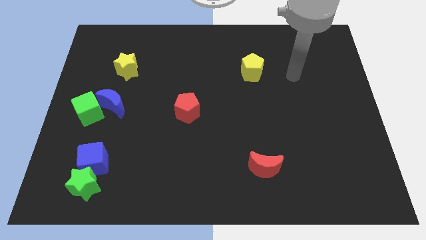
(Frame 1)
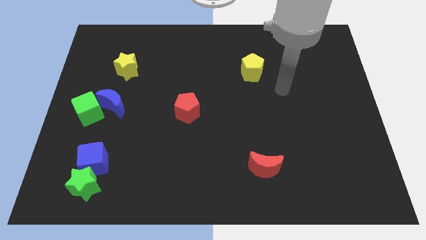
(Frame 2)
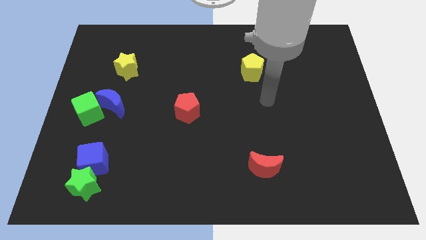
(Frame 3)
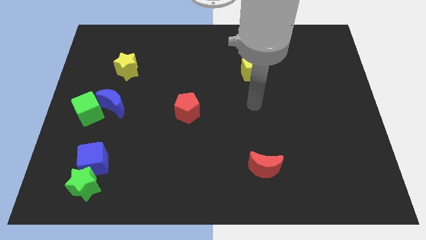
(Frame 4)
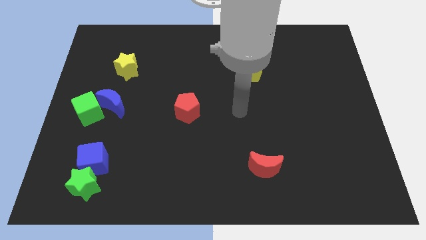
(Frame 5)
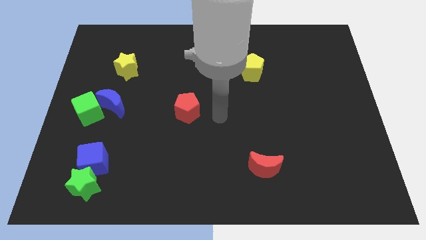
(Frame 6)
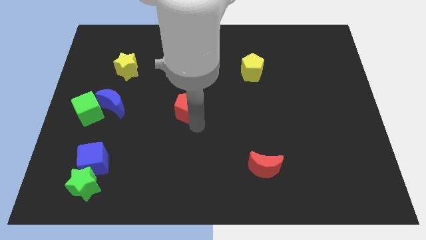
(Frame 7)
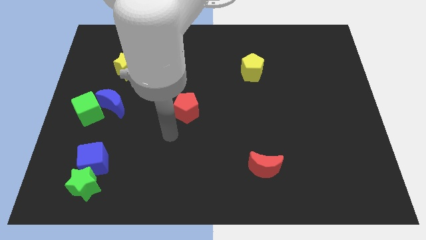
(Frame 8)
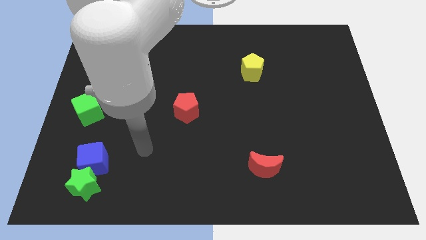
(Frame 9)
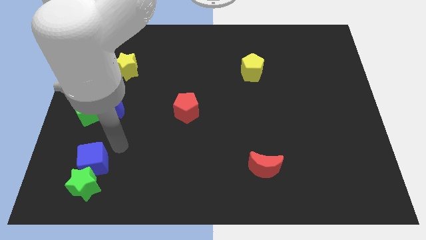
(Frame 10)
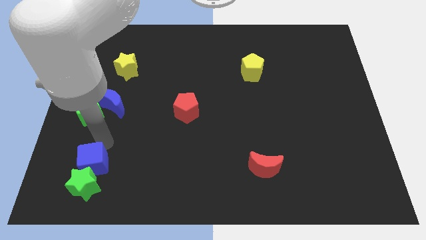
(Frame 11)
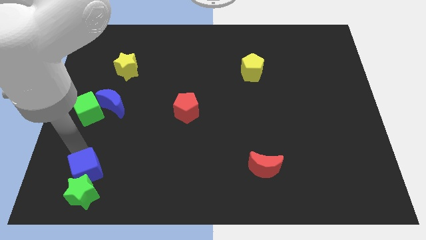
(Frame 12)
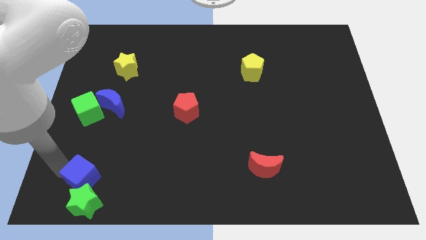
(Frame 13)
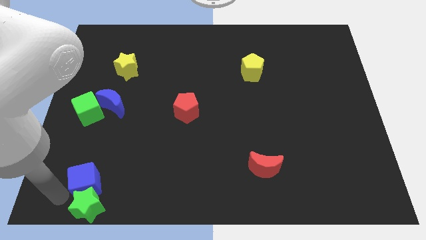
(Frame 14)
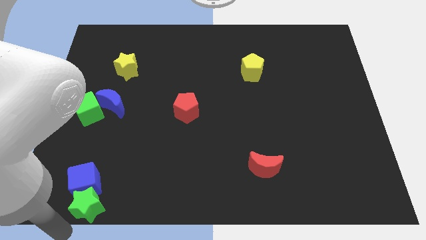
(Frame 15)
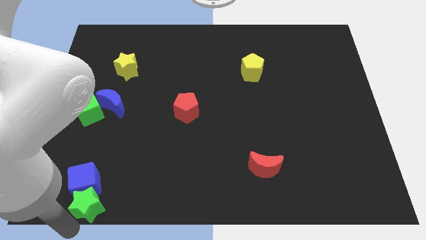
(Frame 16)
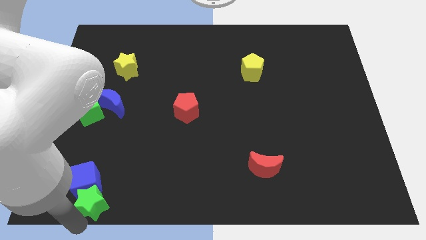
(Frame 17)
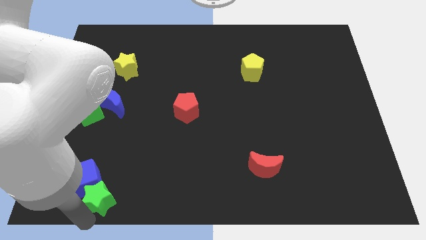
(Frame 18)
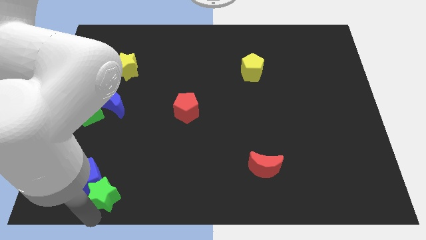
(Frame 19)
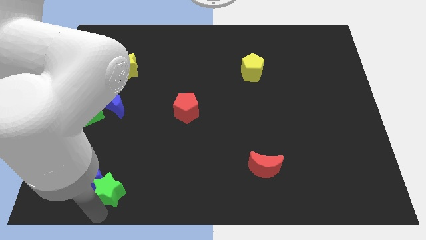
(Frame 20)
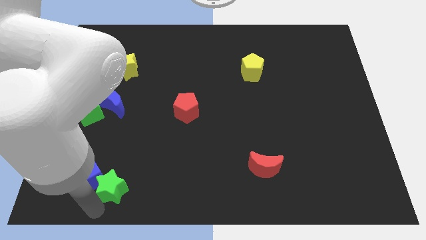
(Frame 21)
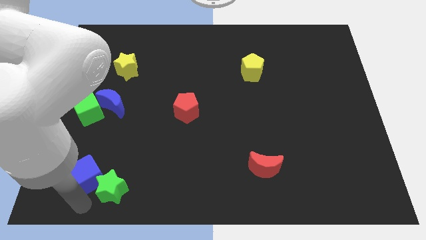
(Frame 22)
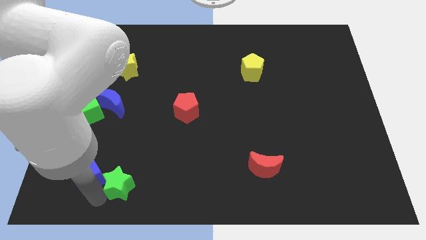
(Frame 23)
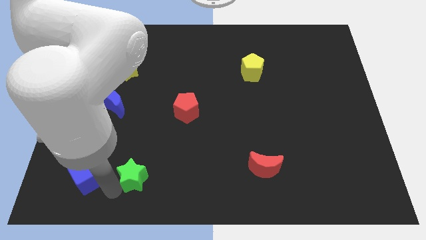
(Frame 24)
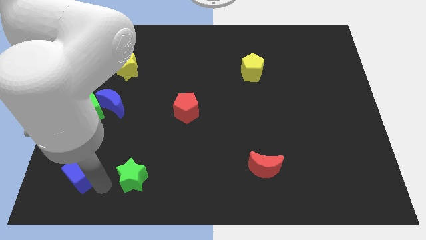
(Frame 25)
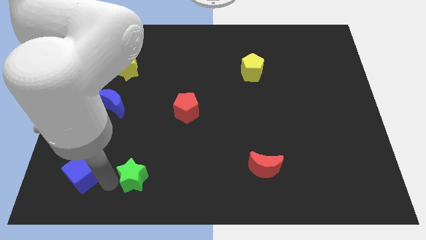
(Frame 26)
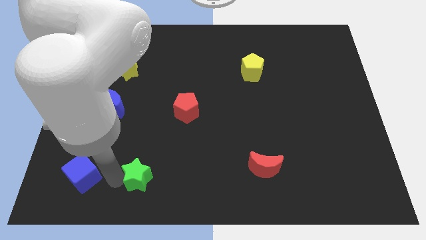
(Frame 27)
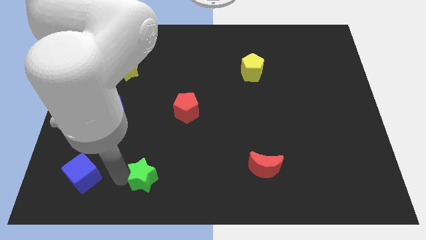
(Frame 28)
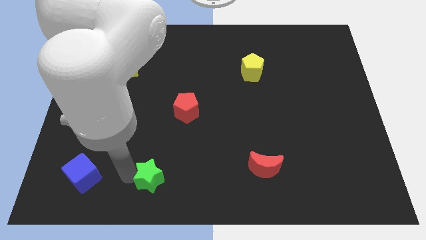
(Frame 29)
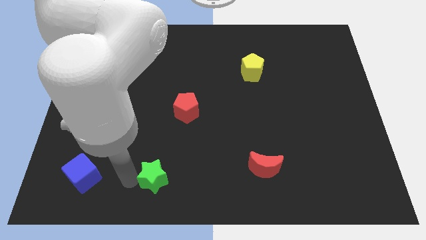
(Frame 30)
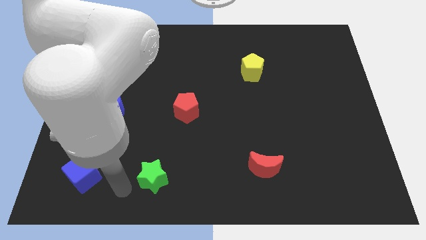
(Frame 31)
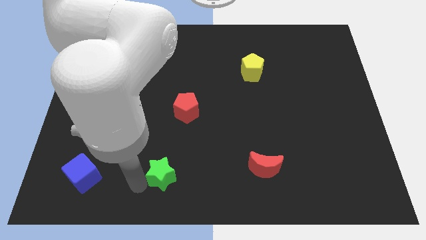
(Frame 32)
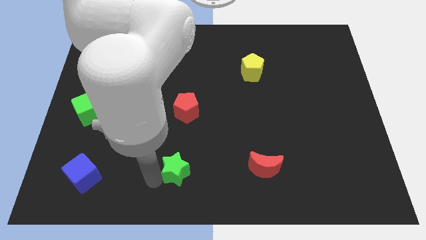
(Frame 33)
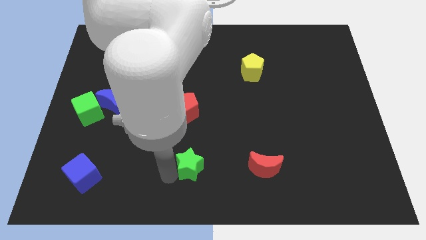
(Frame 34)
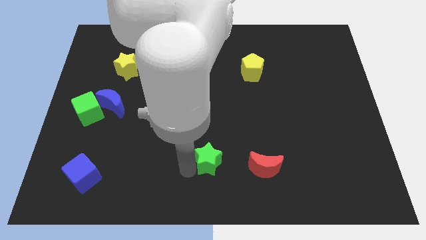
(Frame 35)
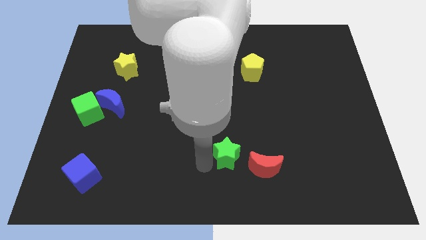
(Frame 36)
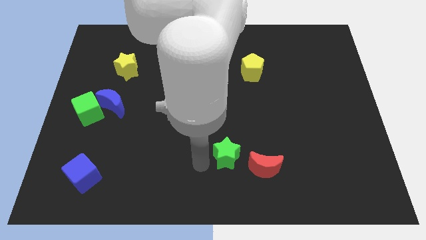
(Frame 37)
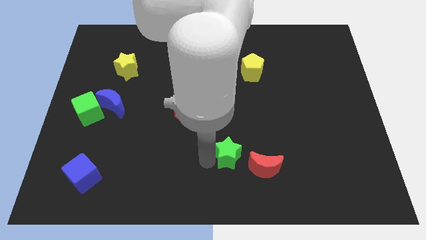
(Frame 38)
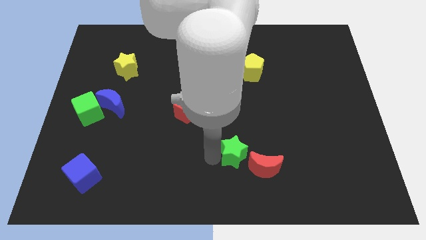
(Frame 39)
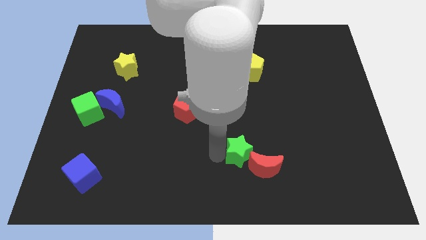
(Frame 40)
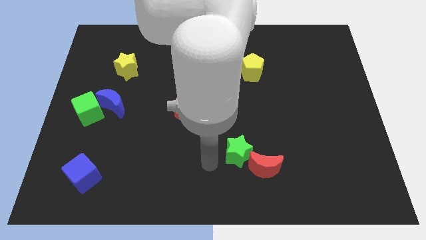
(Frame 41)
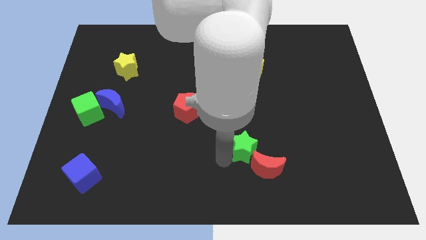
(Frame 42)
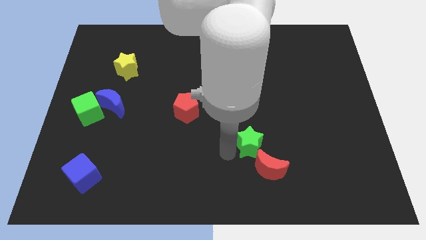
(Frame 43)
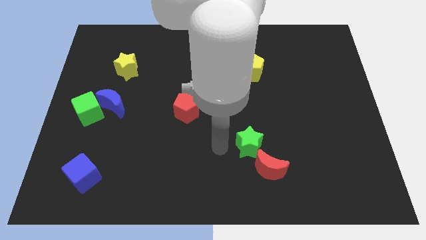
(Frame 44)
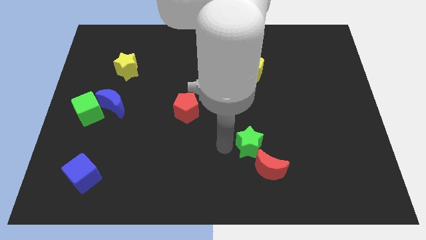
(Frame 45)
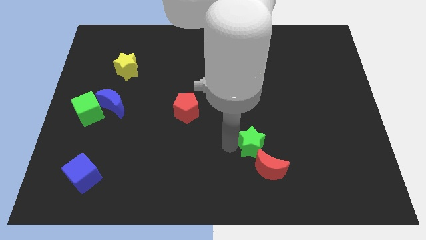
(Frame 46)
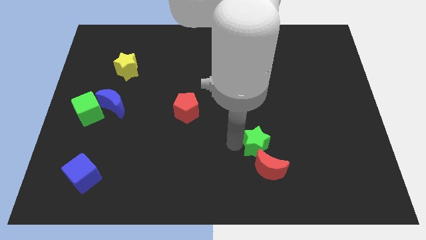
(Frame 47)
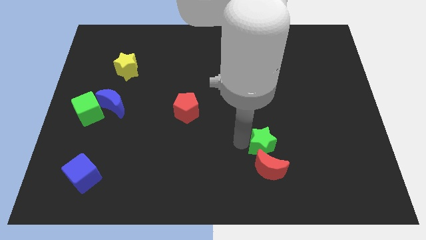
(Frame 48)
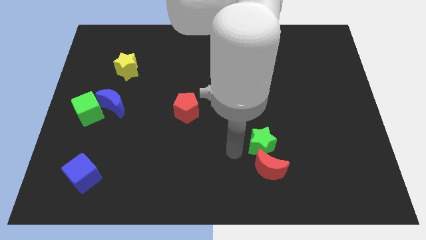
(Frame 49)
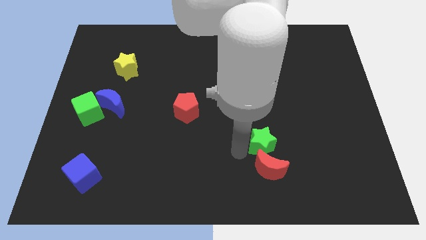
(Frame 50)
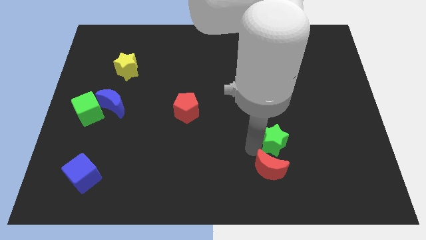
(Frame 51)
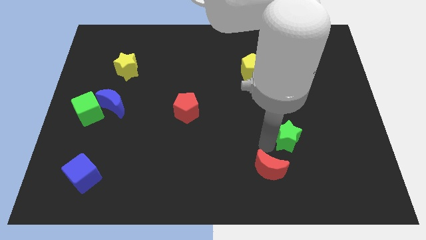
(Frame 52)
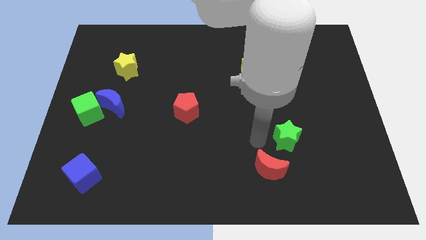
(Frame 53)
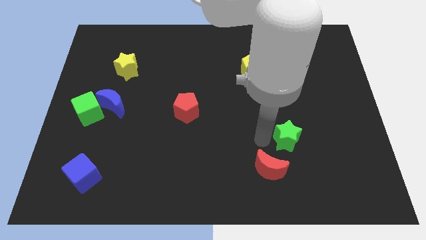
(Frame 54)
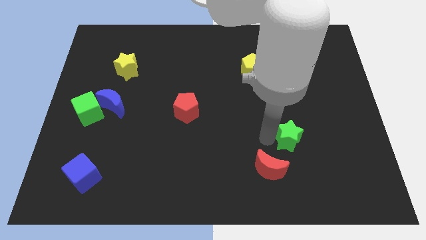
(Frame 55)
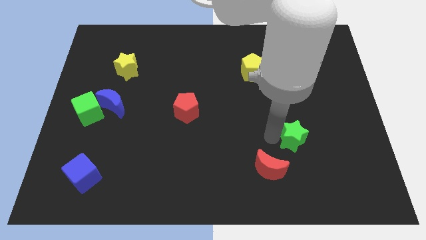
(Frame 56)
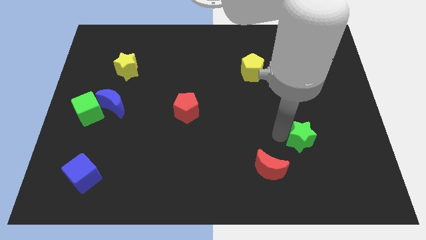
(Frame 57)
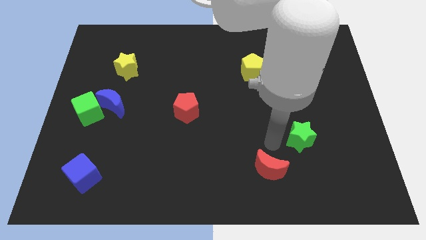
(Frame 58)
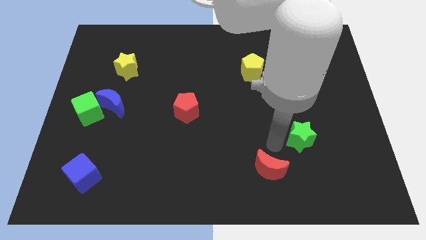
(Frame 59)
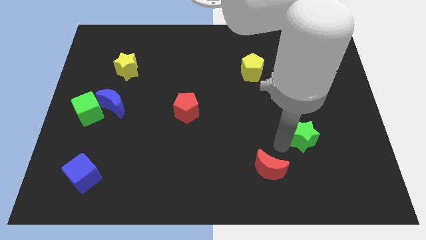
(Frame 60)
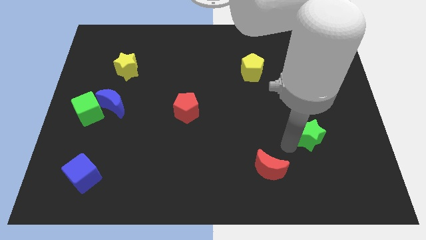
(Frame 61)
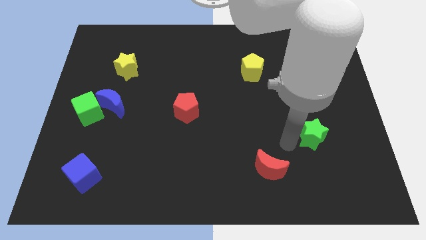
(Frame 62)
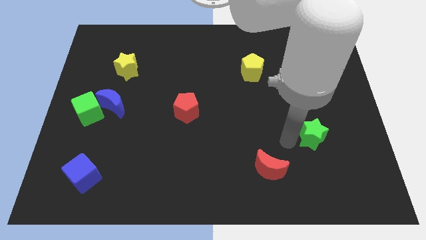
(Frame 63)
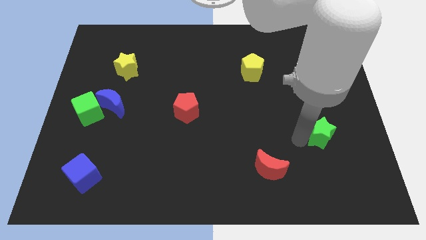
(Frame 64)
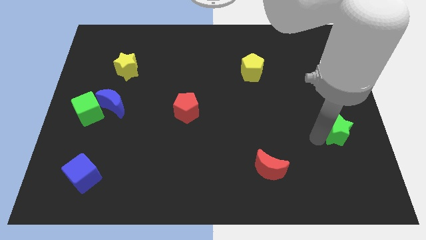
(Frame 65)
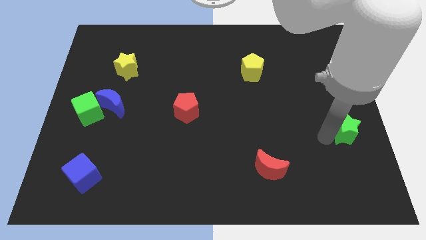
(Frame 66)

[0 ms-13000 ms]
put the green star to the center right
